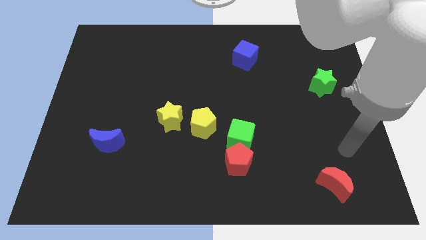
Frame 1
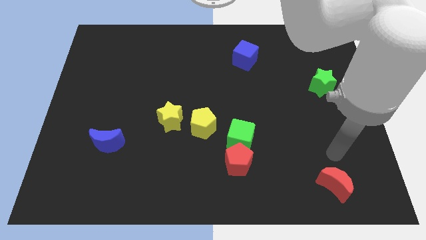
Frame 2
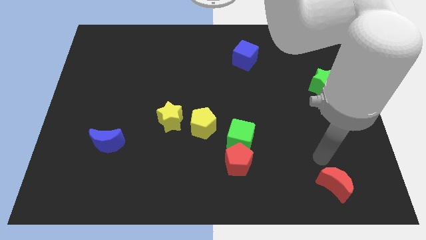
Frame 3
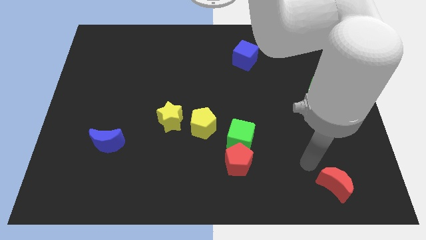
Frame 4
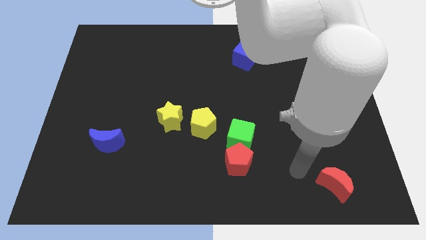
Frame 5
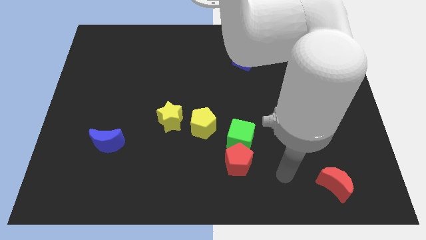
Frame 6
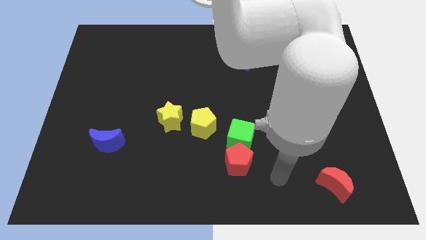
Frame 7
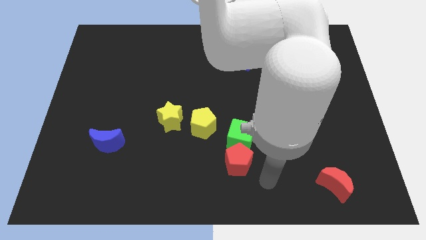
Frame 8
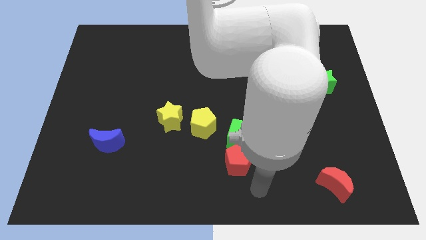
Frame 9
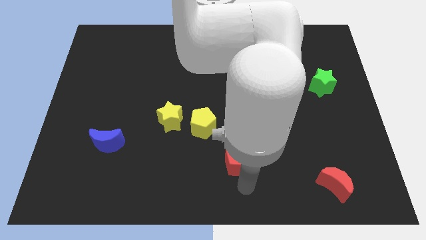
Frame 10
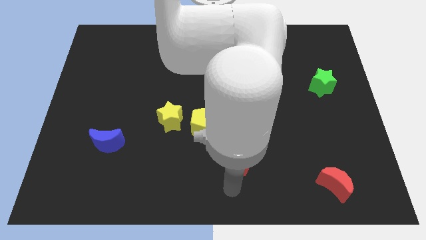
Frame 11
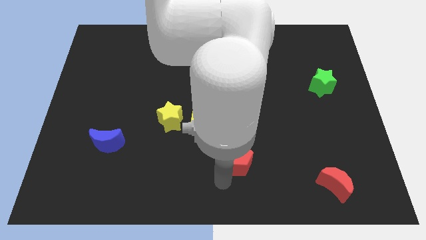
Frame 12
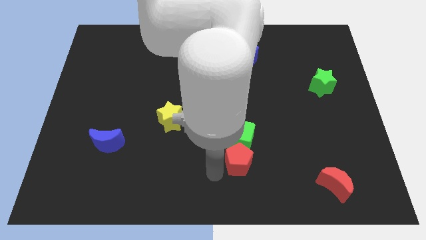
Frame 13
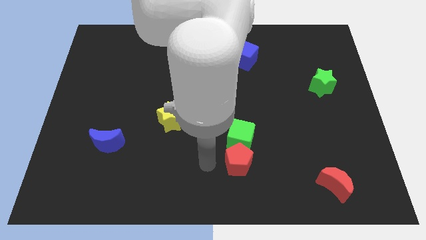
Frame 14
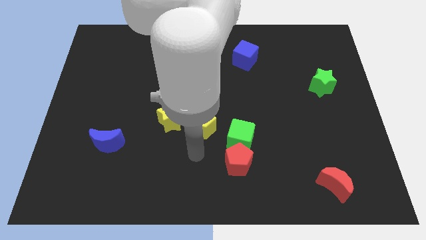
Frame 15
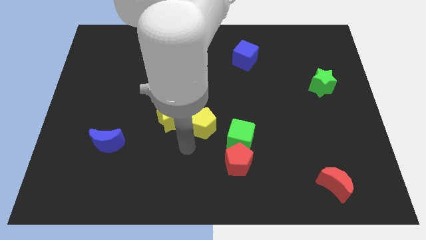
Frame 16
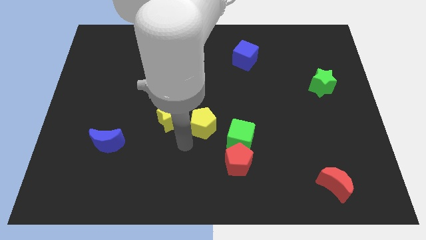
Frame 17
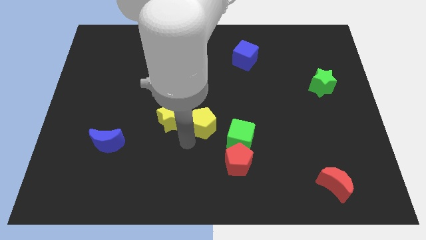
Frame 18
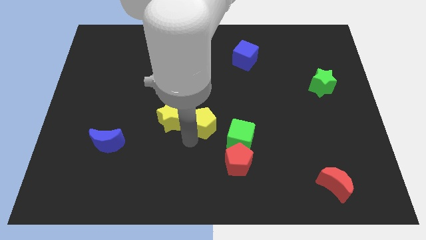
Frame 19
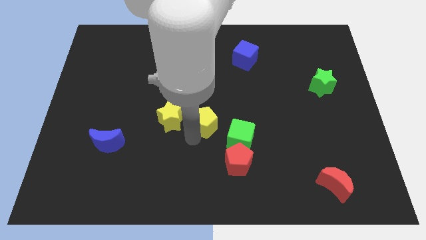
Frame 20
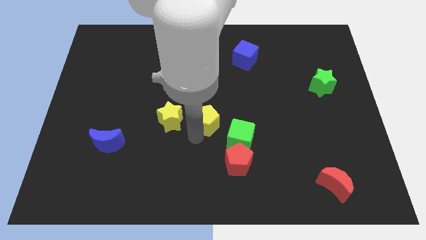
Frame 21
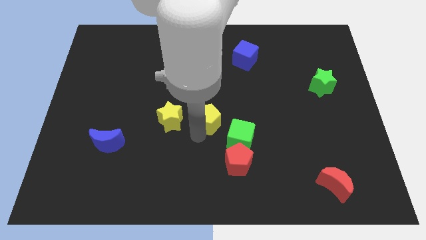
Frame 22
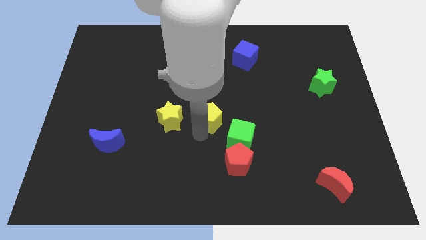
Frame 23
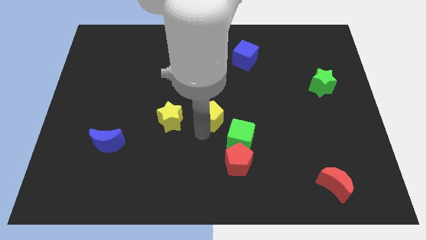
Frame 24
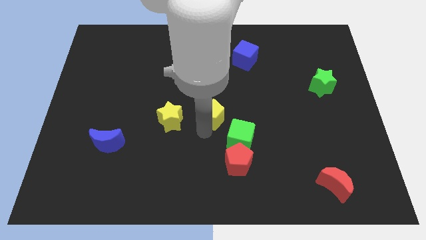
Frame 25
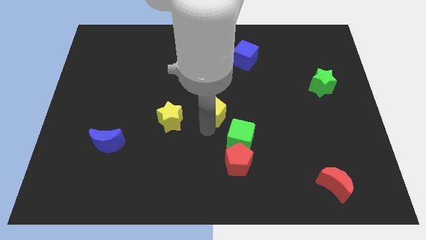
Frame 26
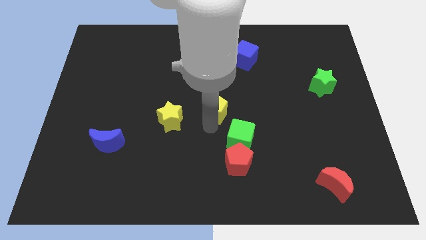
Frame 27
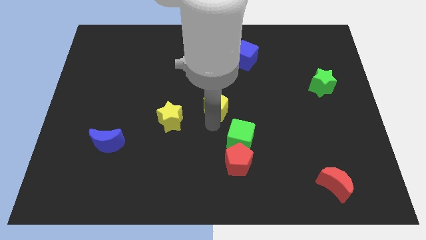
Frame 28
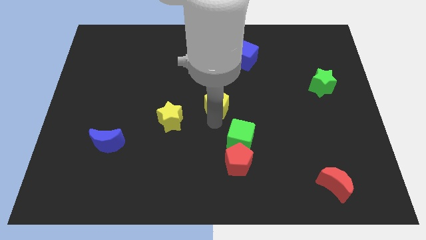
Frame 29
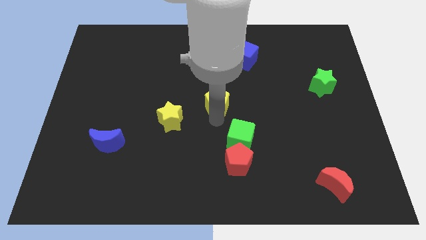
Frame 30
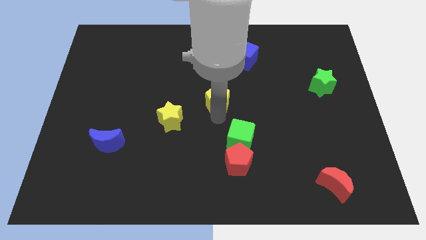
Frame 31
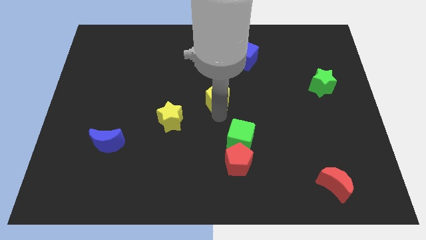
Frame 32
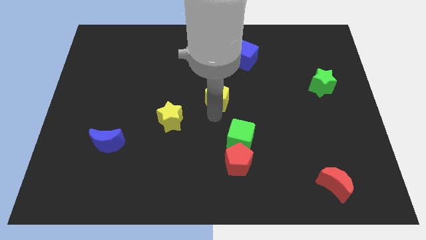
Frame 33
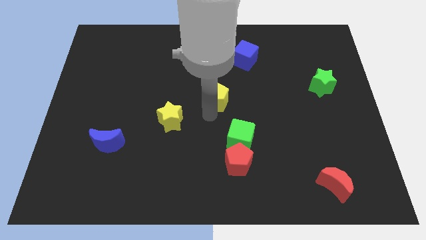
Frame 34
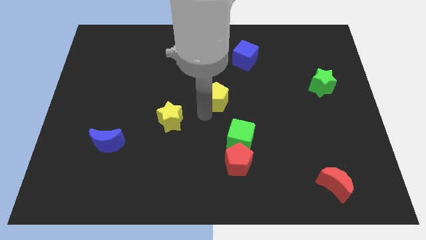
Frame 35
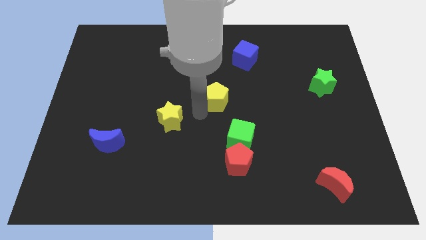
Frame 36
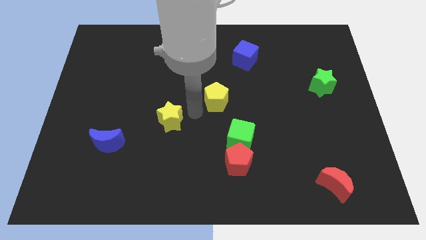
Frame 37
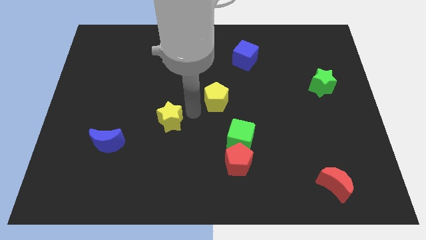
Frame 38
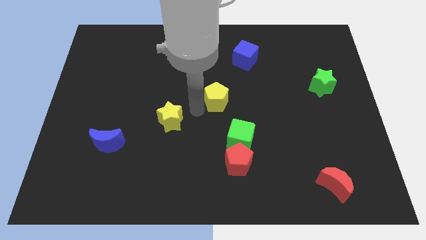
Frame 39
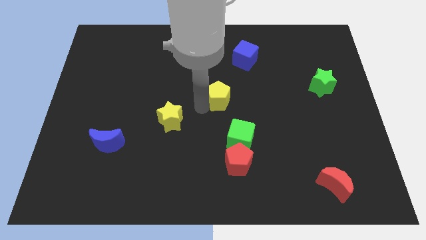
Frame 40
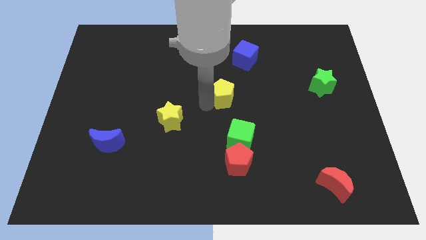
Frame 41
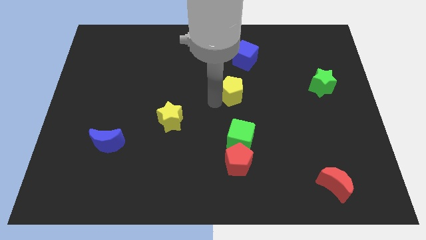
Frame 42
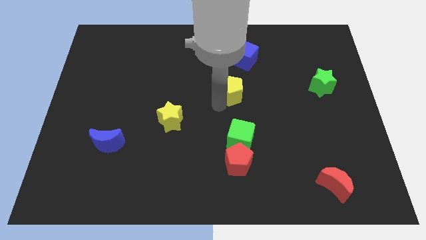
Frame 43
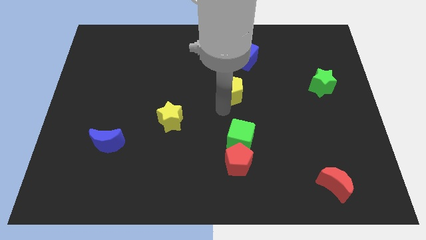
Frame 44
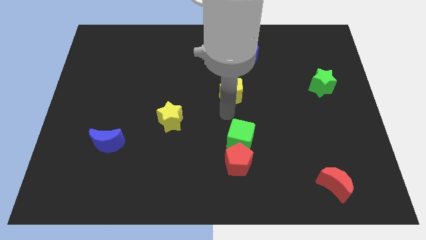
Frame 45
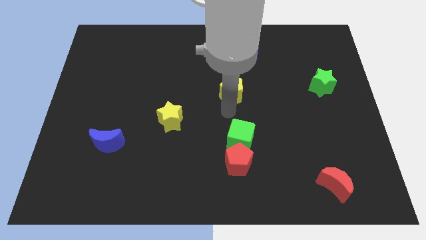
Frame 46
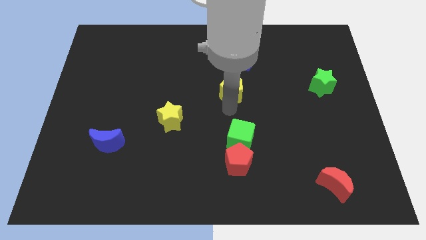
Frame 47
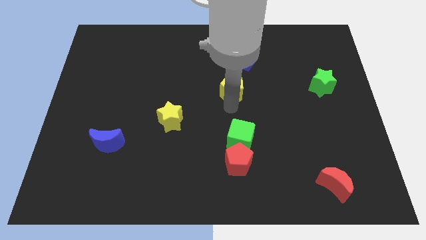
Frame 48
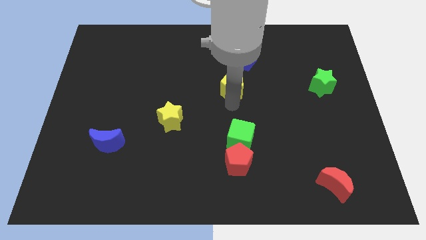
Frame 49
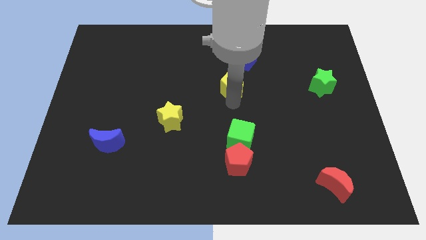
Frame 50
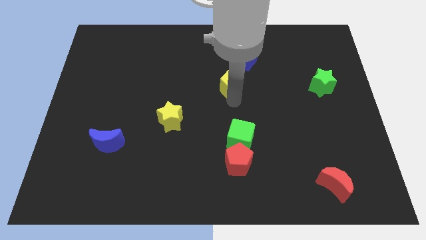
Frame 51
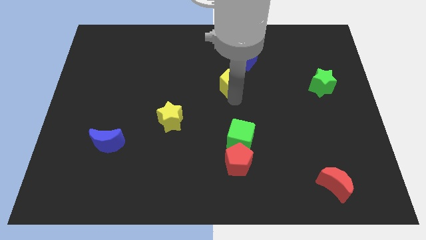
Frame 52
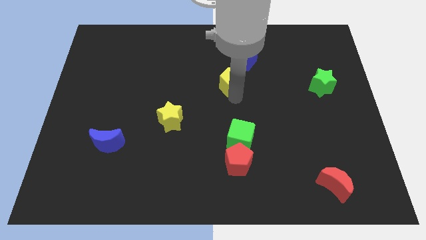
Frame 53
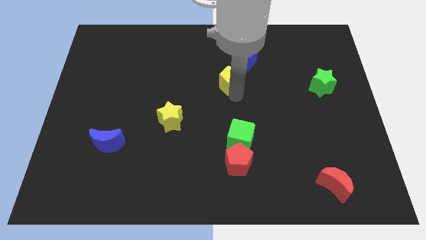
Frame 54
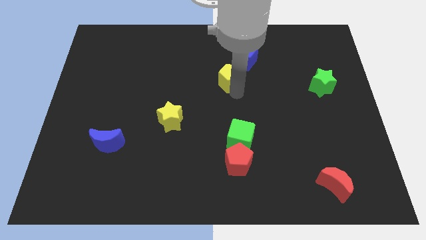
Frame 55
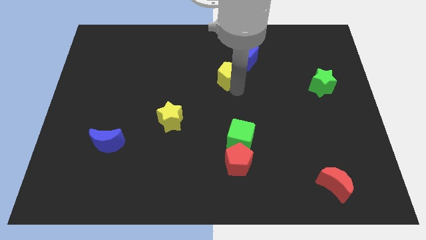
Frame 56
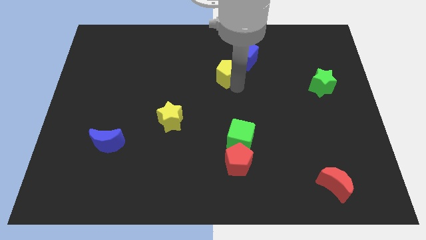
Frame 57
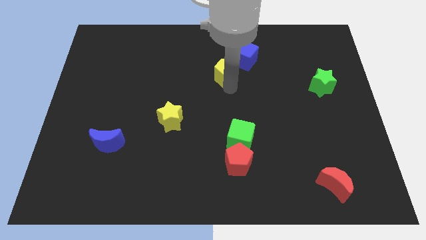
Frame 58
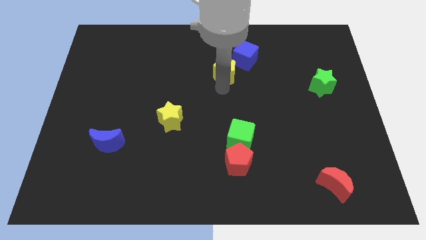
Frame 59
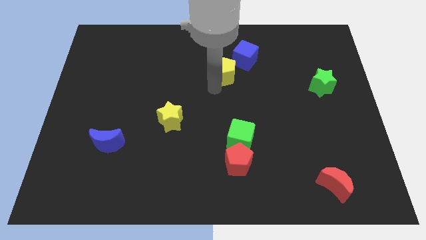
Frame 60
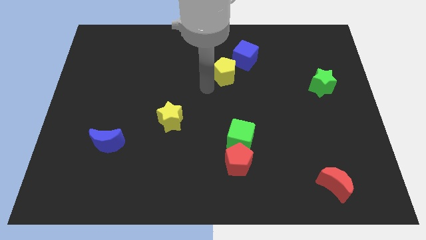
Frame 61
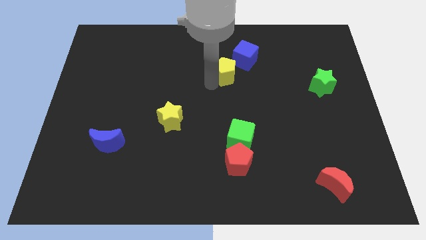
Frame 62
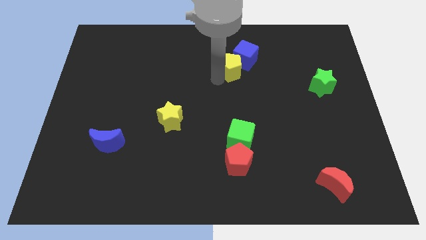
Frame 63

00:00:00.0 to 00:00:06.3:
push the yellow pentagon towards the blue cube

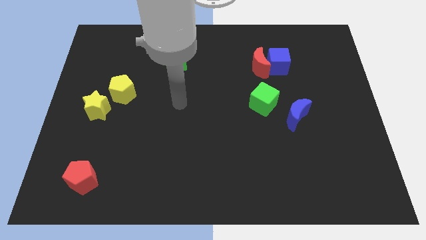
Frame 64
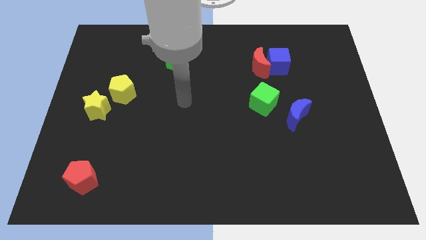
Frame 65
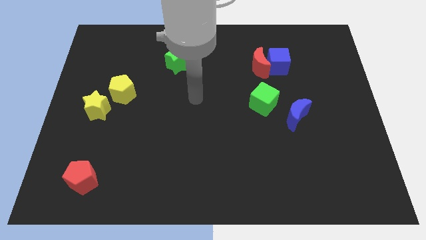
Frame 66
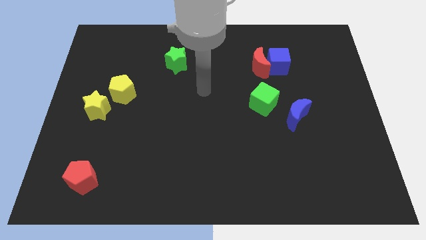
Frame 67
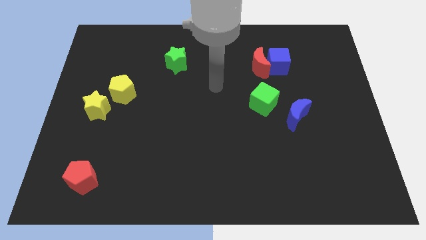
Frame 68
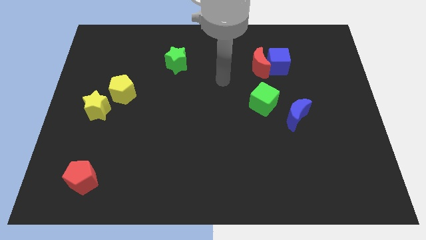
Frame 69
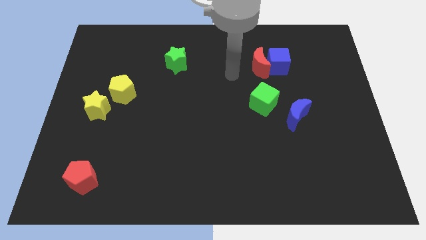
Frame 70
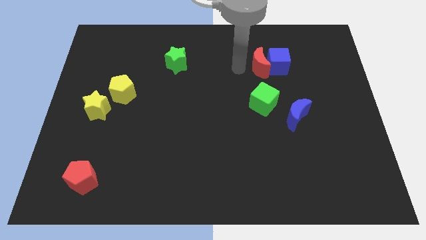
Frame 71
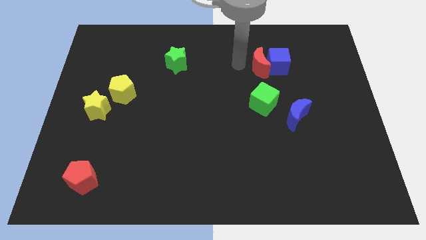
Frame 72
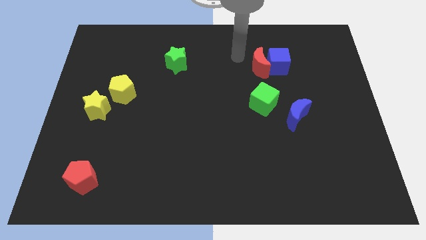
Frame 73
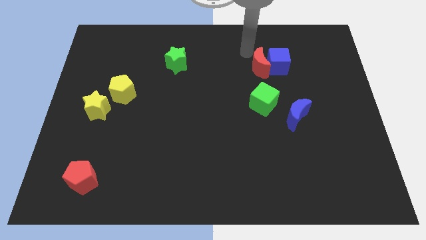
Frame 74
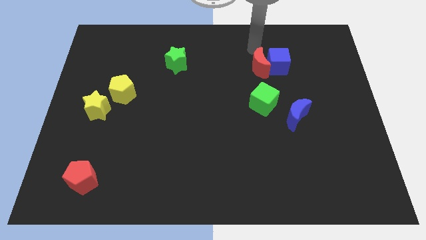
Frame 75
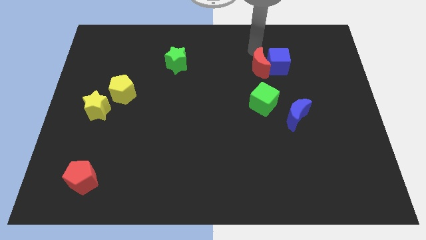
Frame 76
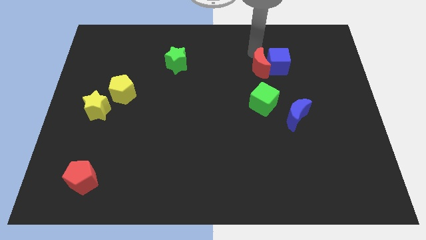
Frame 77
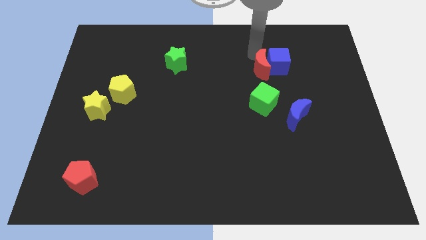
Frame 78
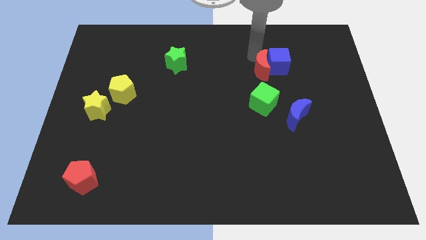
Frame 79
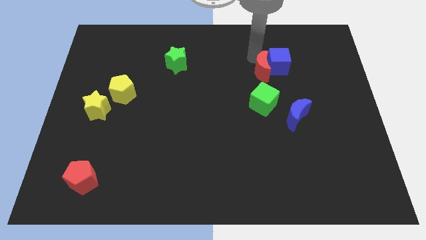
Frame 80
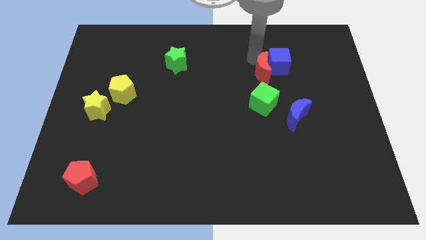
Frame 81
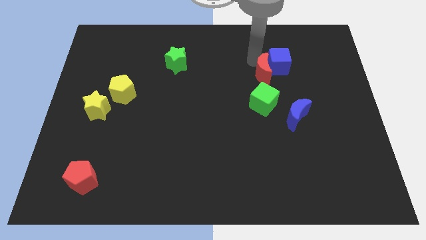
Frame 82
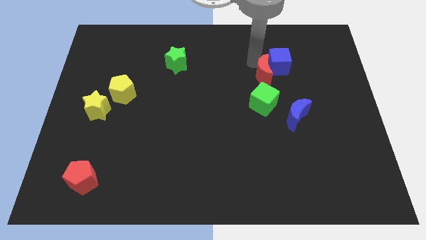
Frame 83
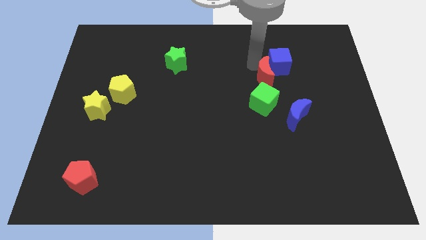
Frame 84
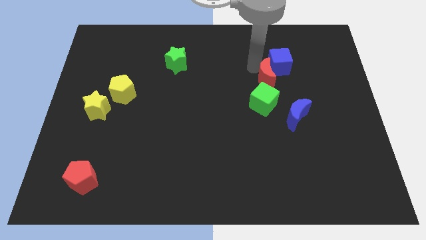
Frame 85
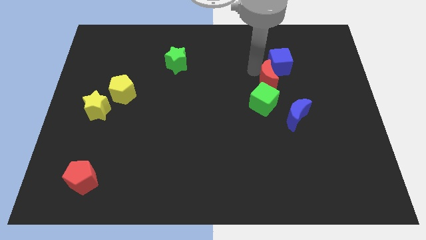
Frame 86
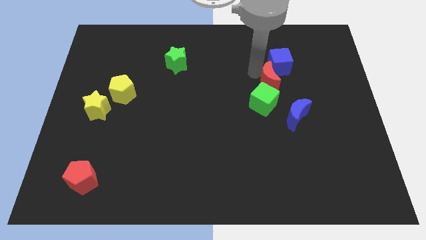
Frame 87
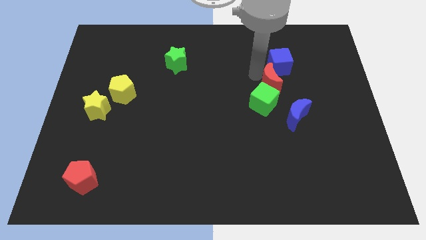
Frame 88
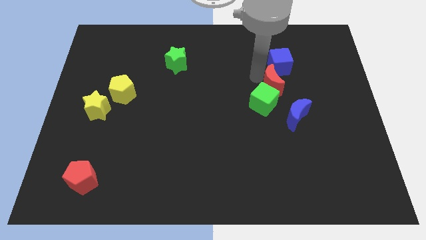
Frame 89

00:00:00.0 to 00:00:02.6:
push the red moon towards the green cube
